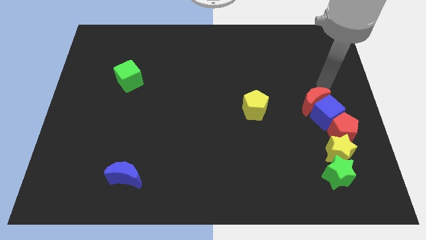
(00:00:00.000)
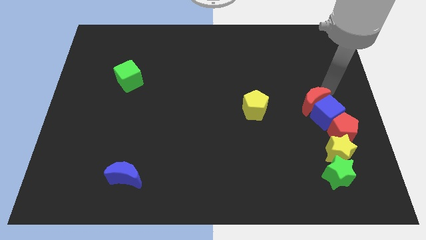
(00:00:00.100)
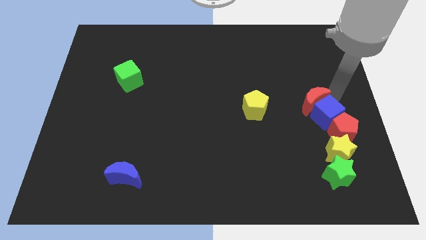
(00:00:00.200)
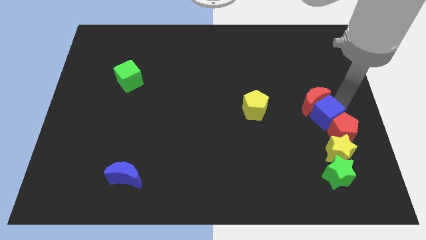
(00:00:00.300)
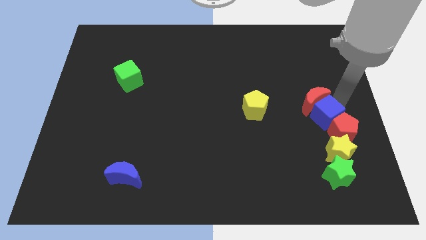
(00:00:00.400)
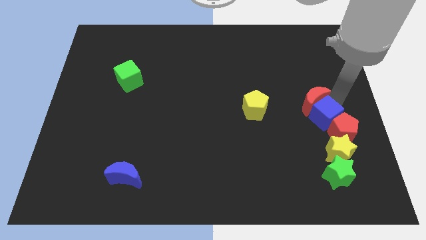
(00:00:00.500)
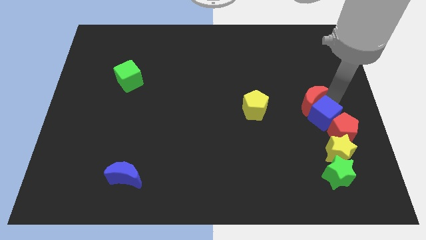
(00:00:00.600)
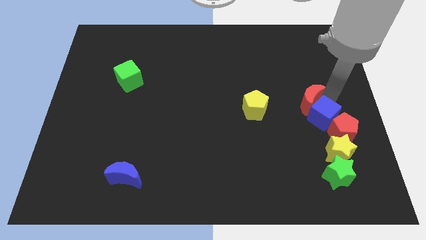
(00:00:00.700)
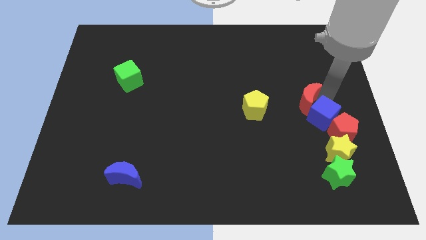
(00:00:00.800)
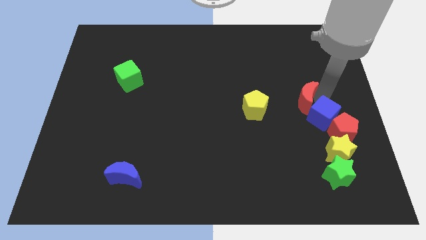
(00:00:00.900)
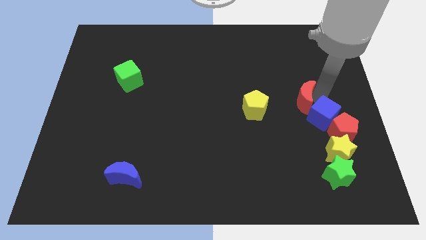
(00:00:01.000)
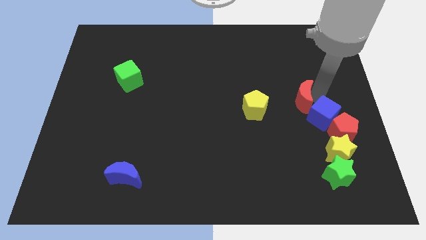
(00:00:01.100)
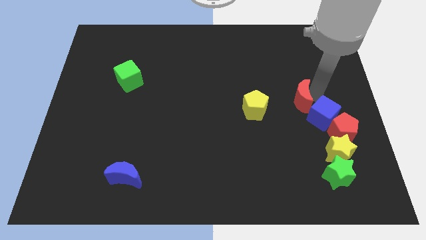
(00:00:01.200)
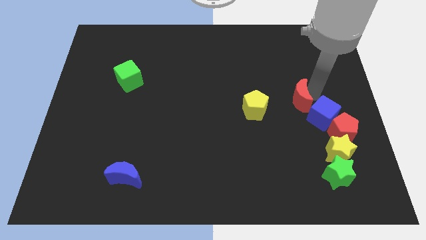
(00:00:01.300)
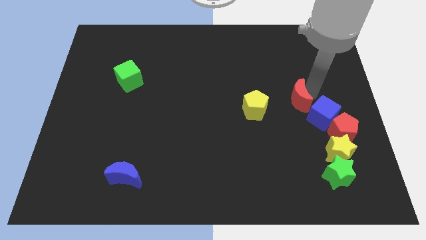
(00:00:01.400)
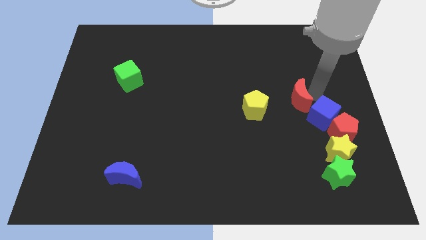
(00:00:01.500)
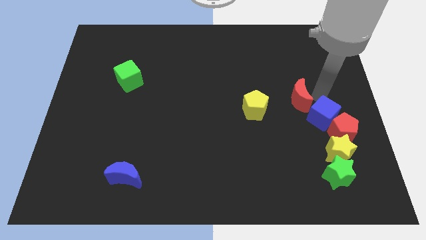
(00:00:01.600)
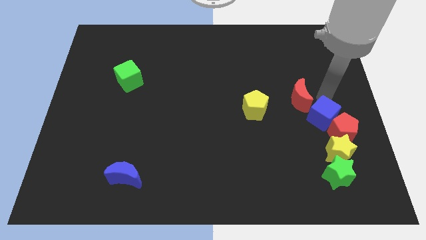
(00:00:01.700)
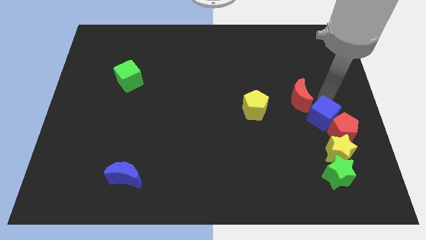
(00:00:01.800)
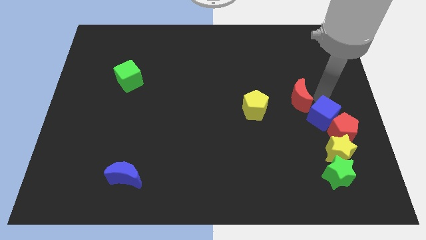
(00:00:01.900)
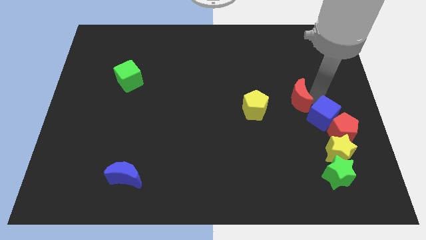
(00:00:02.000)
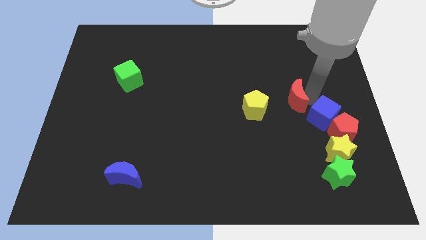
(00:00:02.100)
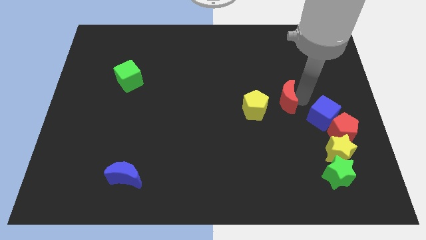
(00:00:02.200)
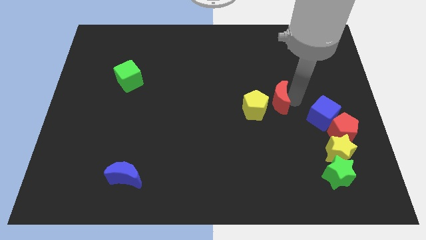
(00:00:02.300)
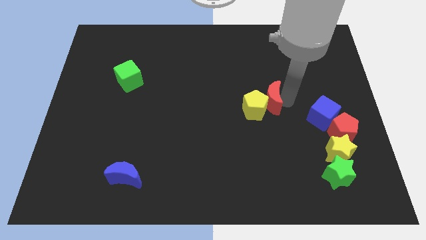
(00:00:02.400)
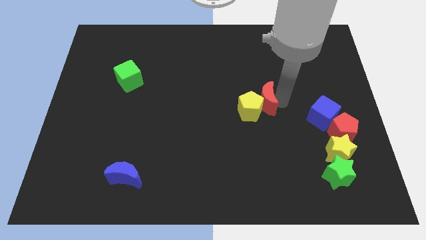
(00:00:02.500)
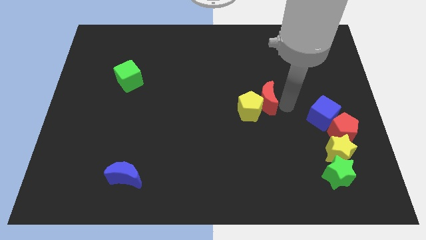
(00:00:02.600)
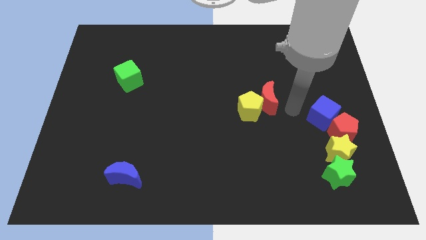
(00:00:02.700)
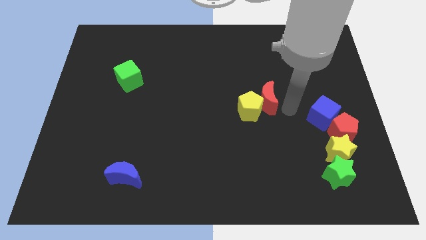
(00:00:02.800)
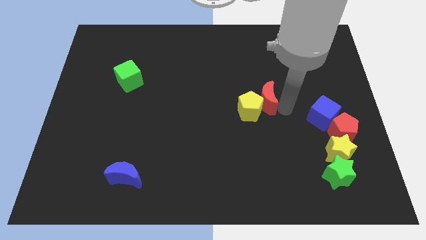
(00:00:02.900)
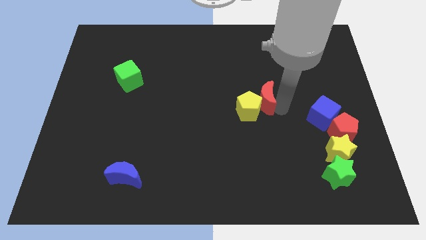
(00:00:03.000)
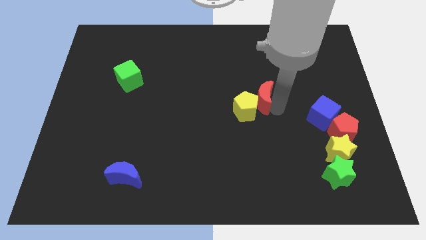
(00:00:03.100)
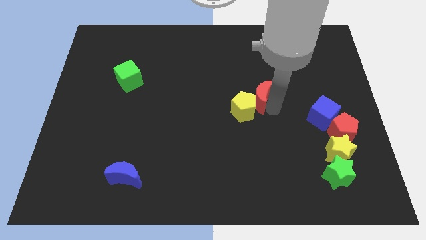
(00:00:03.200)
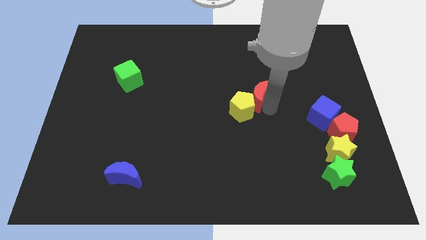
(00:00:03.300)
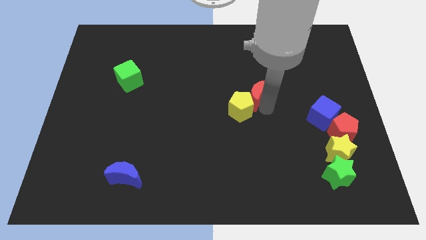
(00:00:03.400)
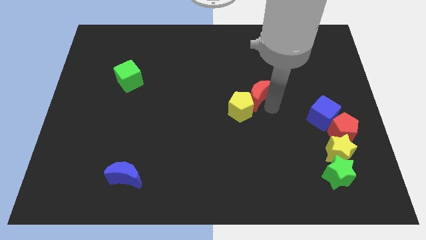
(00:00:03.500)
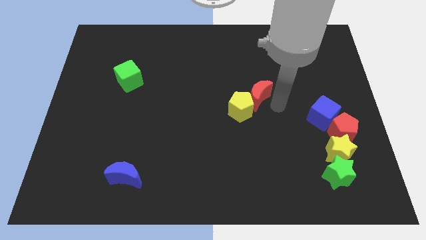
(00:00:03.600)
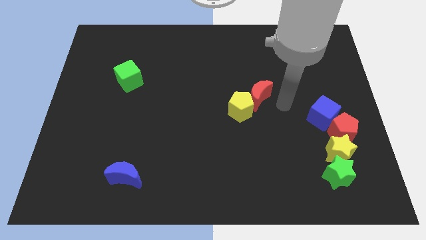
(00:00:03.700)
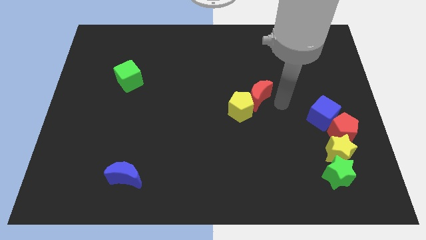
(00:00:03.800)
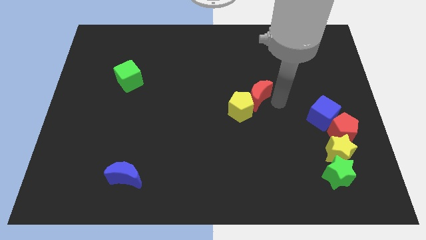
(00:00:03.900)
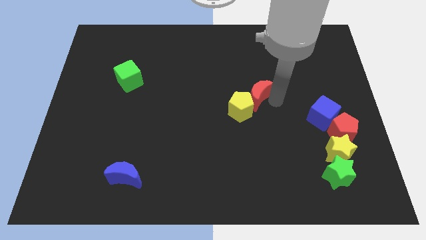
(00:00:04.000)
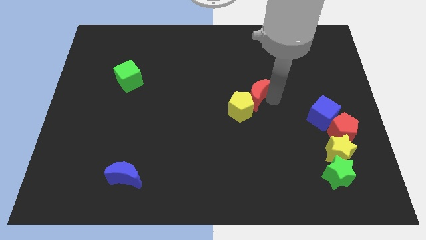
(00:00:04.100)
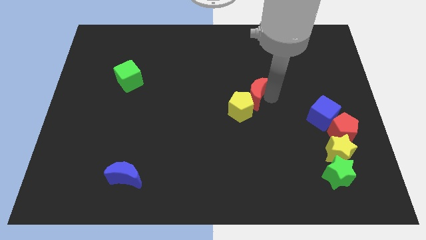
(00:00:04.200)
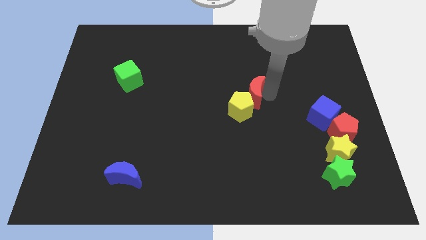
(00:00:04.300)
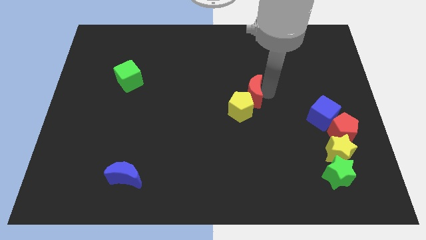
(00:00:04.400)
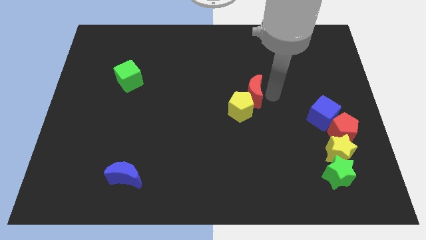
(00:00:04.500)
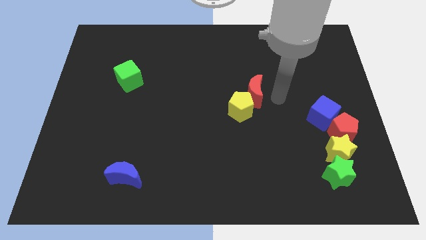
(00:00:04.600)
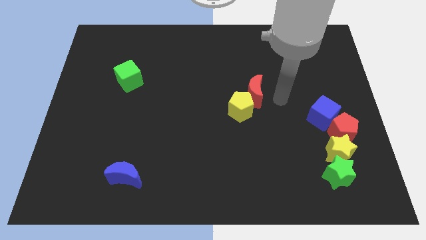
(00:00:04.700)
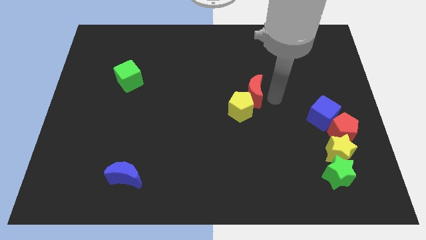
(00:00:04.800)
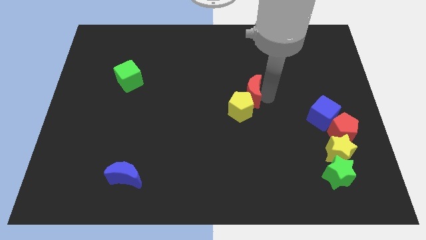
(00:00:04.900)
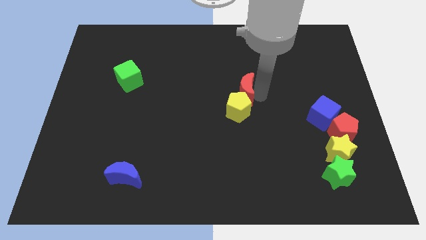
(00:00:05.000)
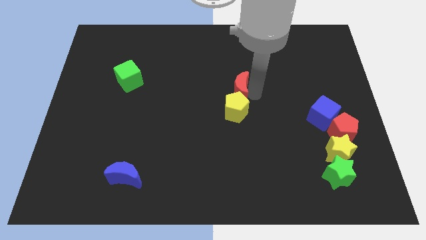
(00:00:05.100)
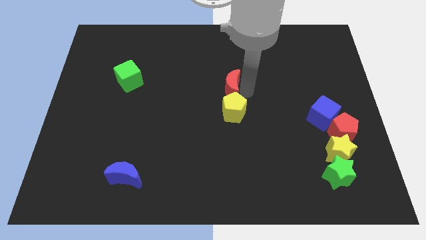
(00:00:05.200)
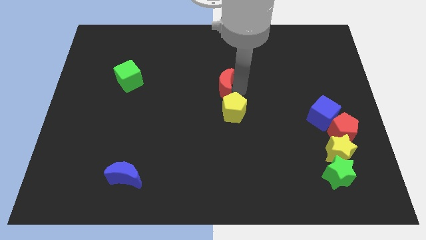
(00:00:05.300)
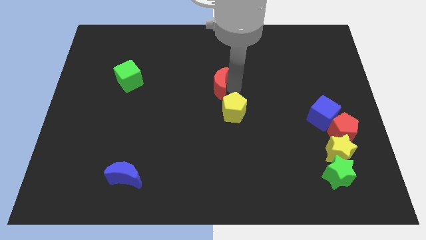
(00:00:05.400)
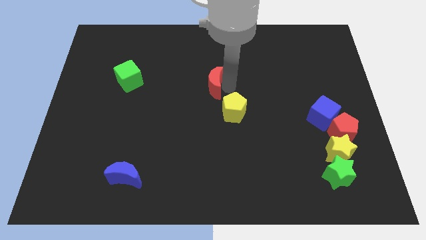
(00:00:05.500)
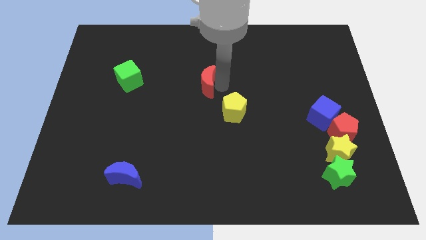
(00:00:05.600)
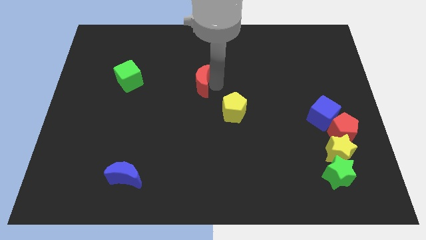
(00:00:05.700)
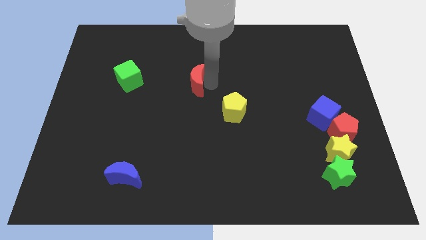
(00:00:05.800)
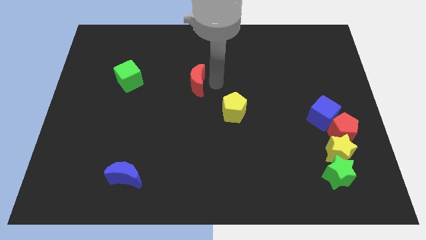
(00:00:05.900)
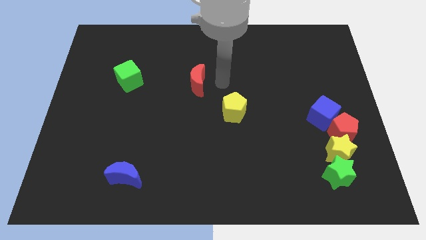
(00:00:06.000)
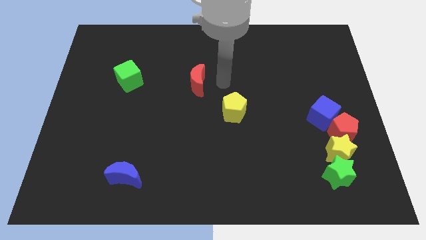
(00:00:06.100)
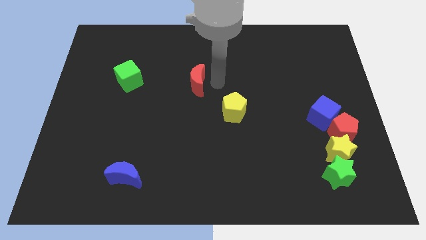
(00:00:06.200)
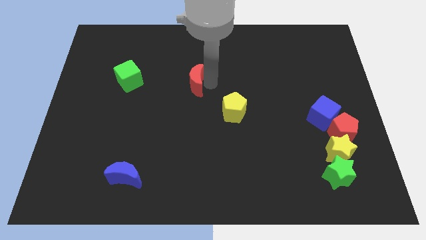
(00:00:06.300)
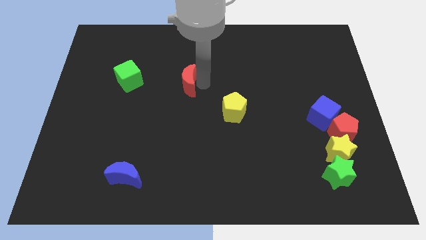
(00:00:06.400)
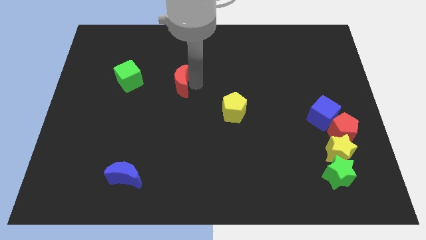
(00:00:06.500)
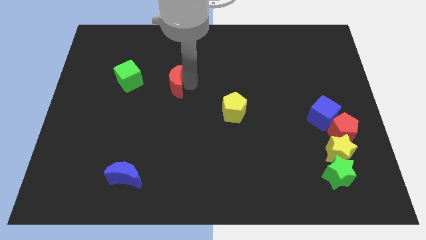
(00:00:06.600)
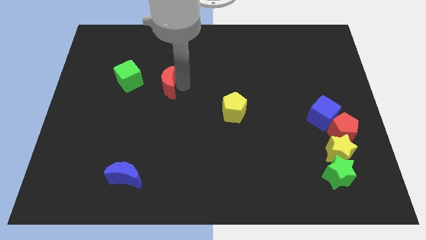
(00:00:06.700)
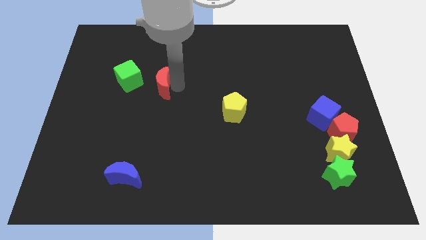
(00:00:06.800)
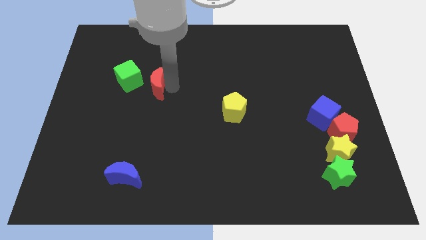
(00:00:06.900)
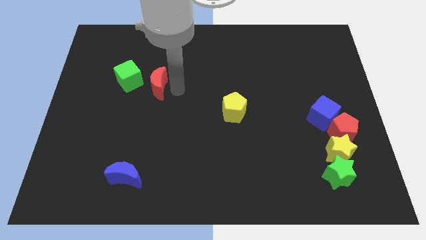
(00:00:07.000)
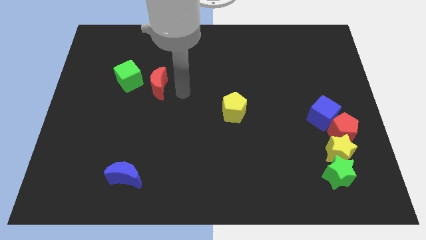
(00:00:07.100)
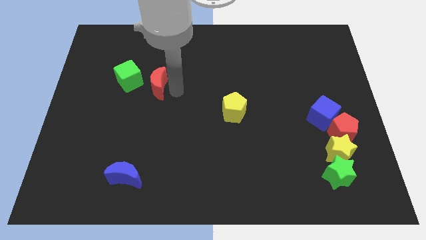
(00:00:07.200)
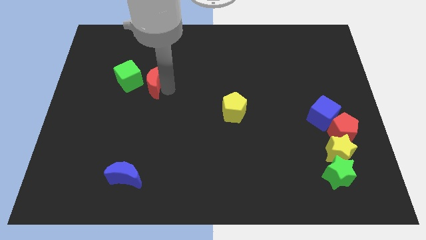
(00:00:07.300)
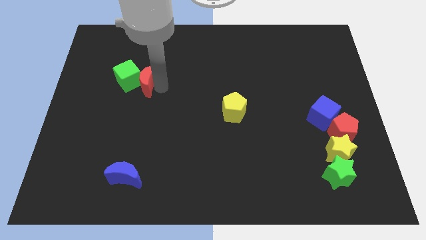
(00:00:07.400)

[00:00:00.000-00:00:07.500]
slide the red moon to the green cube

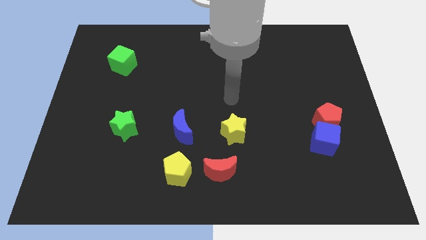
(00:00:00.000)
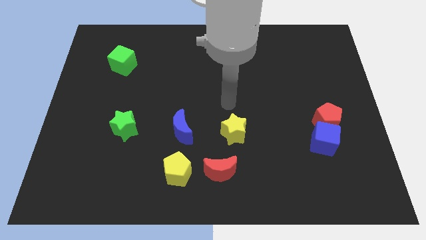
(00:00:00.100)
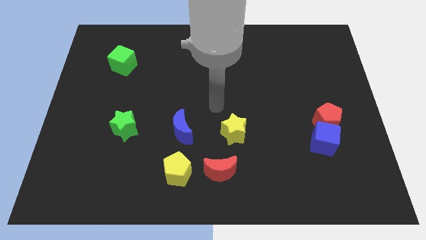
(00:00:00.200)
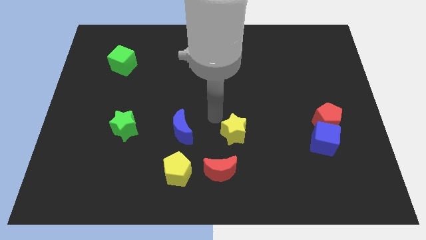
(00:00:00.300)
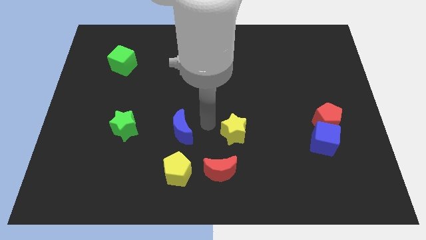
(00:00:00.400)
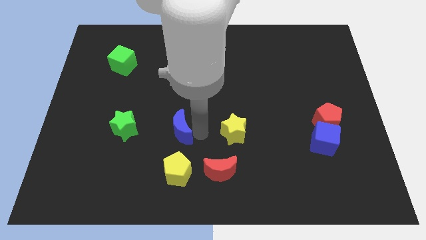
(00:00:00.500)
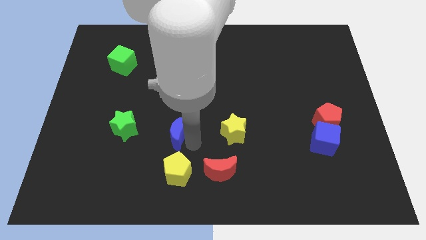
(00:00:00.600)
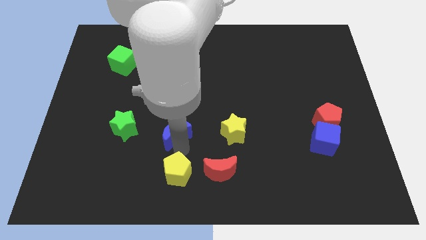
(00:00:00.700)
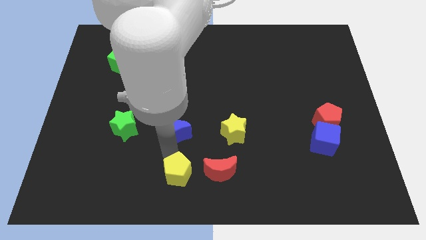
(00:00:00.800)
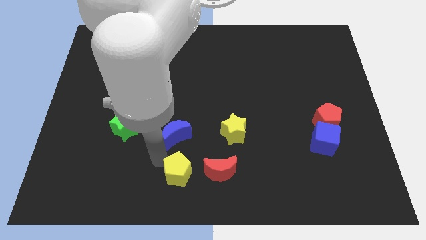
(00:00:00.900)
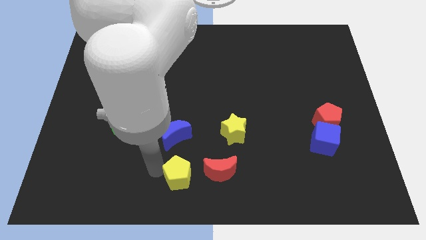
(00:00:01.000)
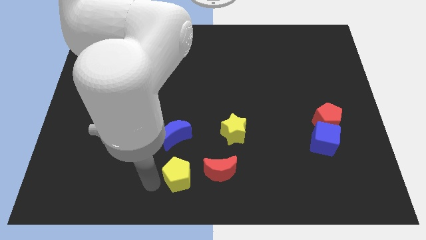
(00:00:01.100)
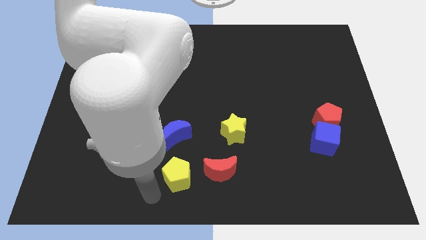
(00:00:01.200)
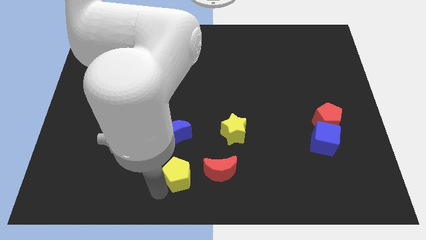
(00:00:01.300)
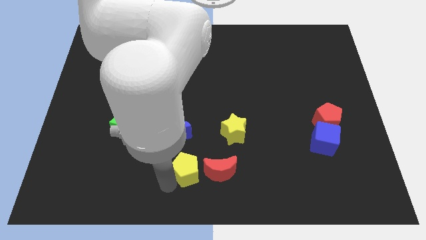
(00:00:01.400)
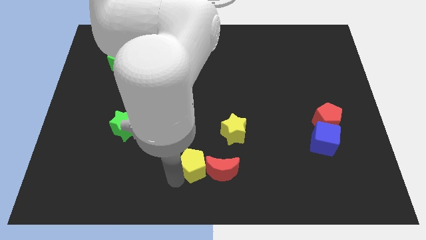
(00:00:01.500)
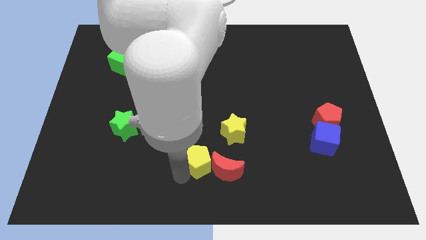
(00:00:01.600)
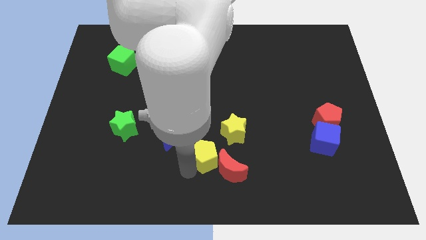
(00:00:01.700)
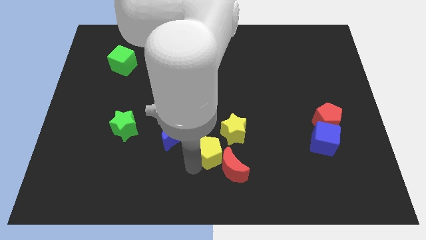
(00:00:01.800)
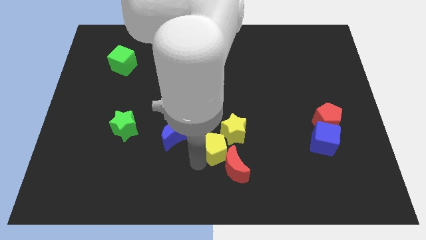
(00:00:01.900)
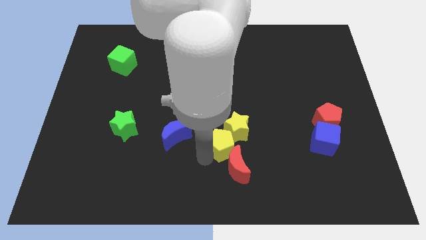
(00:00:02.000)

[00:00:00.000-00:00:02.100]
slide the yellow pentagon close to the yellow star
